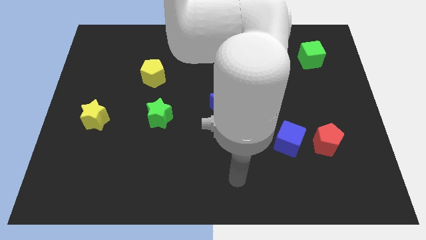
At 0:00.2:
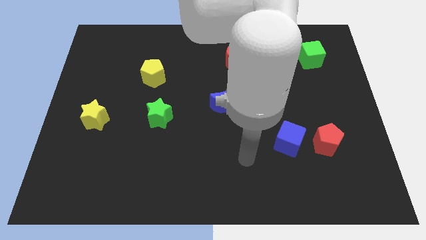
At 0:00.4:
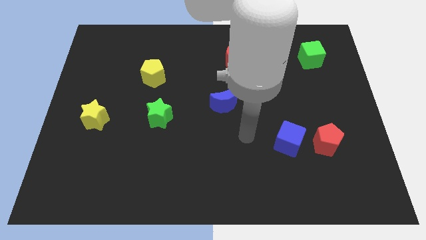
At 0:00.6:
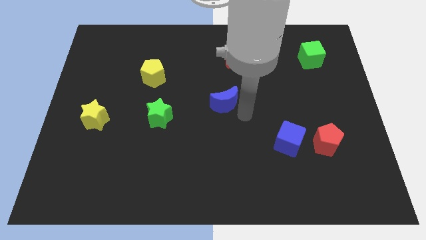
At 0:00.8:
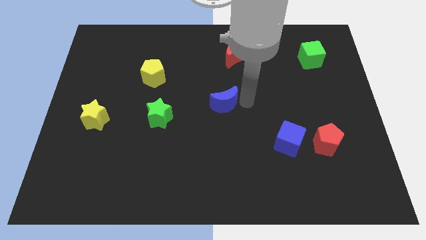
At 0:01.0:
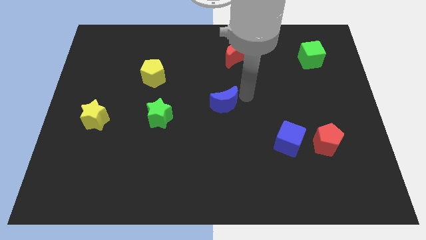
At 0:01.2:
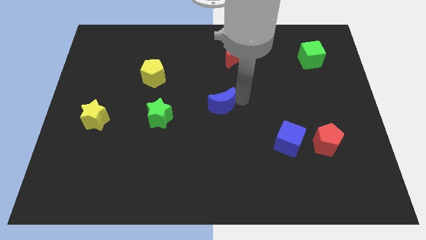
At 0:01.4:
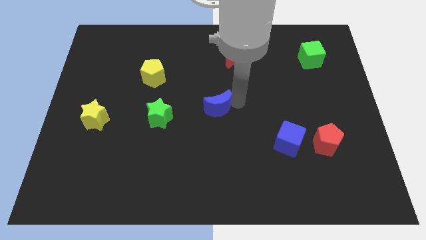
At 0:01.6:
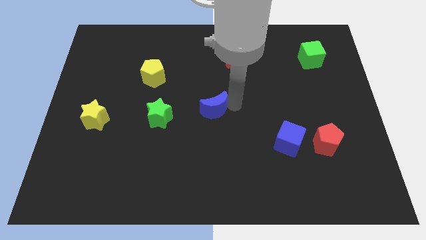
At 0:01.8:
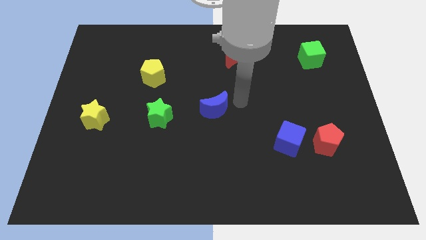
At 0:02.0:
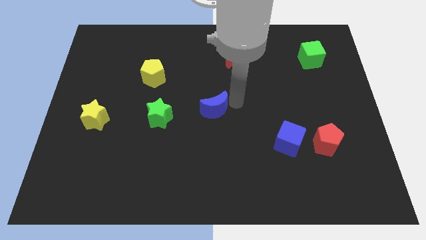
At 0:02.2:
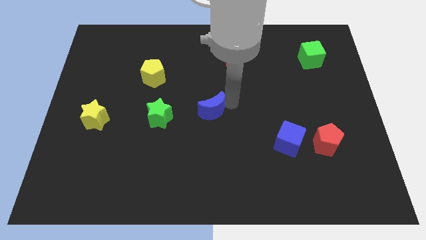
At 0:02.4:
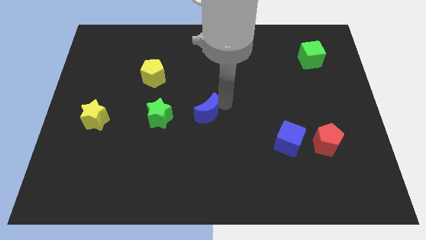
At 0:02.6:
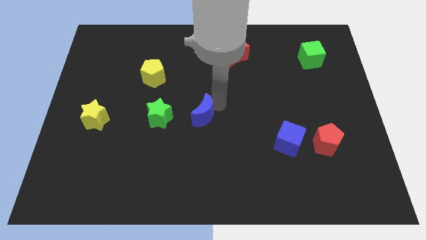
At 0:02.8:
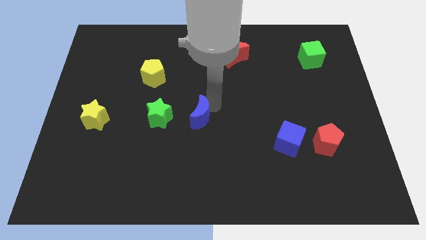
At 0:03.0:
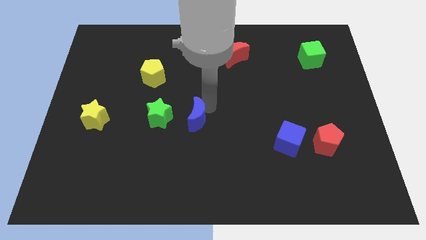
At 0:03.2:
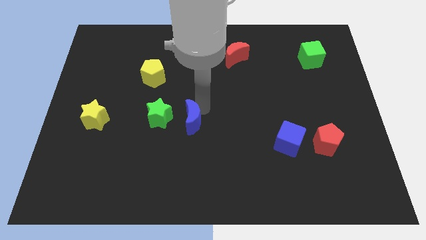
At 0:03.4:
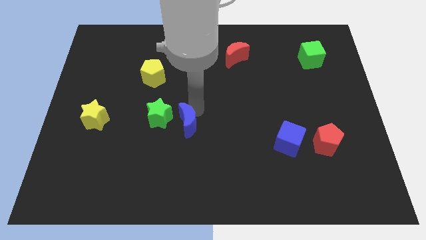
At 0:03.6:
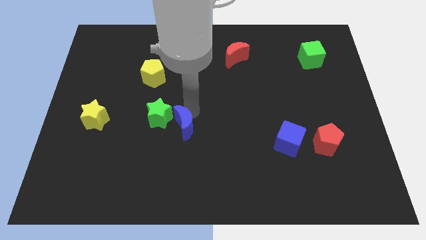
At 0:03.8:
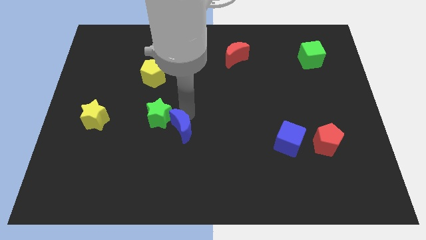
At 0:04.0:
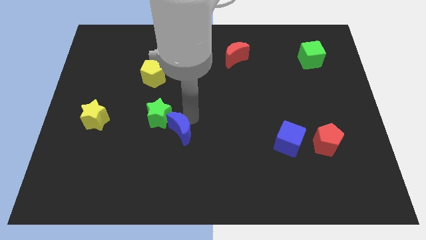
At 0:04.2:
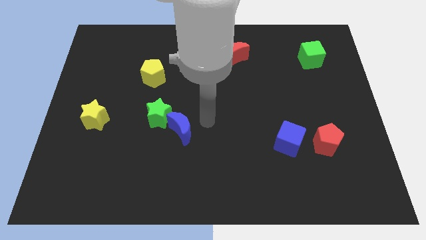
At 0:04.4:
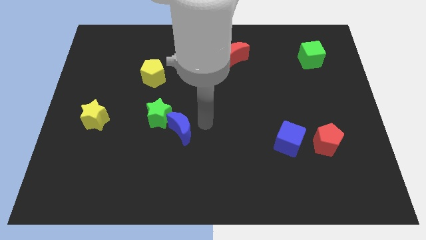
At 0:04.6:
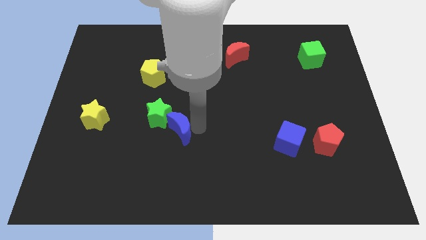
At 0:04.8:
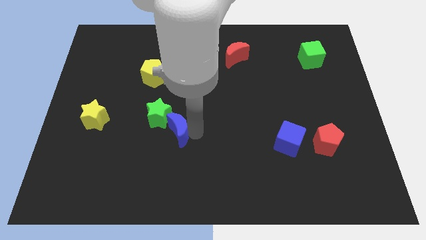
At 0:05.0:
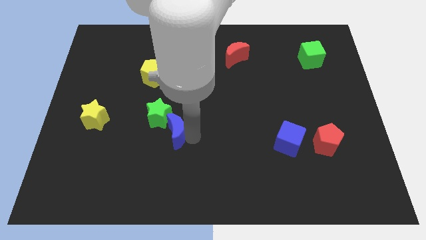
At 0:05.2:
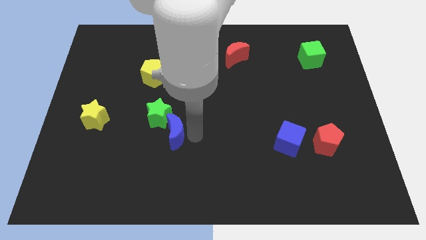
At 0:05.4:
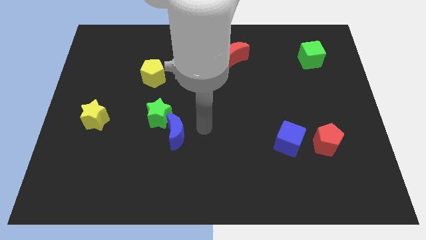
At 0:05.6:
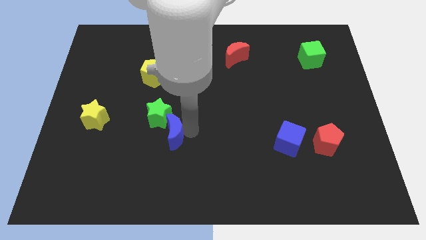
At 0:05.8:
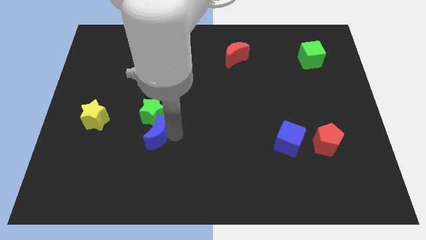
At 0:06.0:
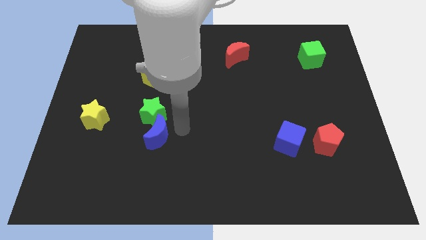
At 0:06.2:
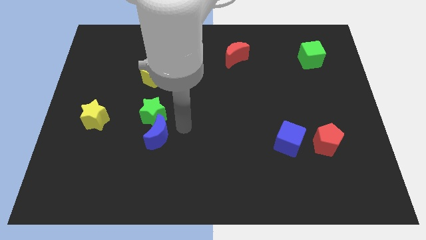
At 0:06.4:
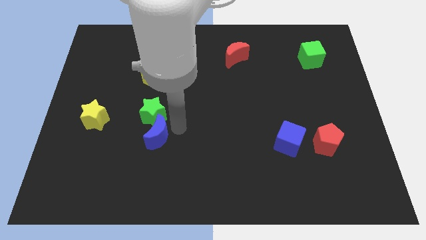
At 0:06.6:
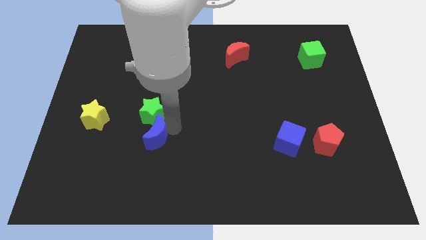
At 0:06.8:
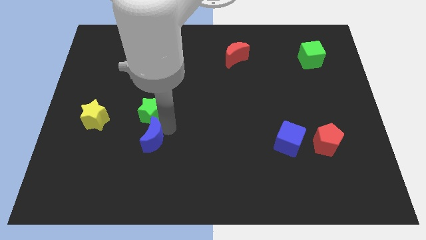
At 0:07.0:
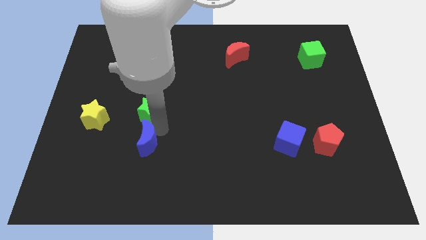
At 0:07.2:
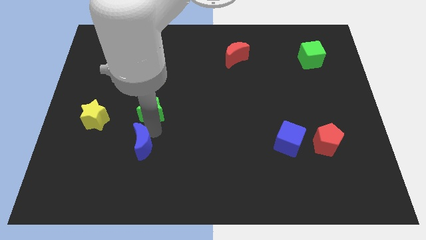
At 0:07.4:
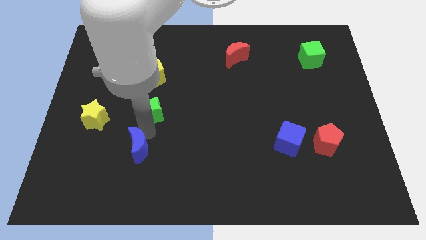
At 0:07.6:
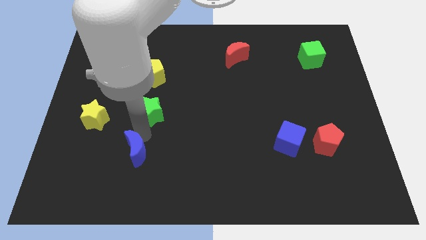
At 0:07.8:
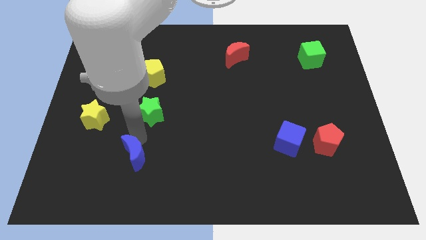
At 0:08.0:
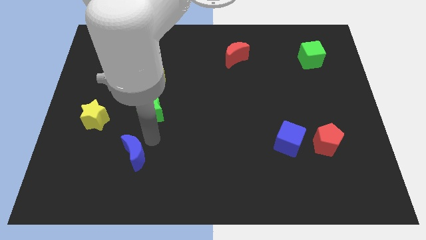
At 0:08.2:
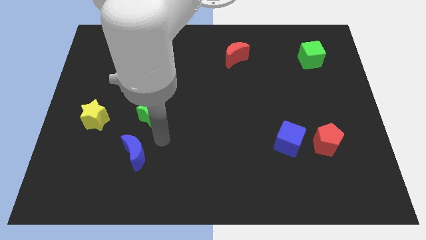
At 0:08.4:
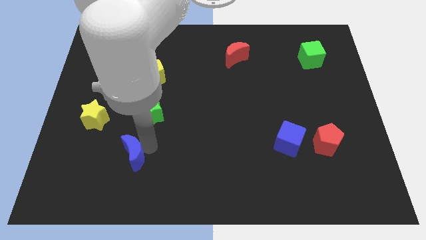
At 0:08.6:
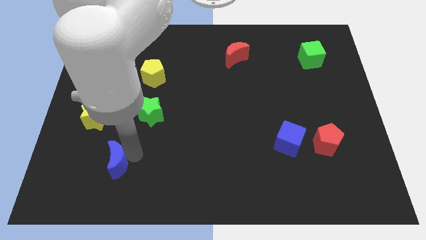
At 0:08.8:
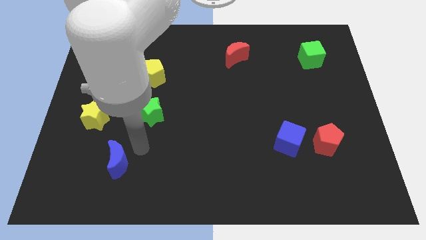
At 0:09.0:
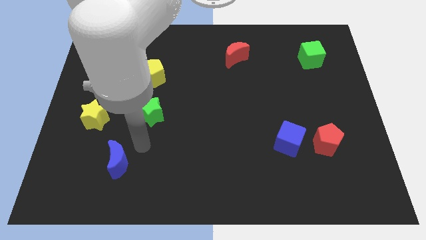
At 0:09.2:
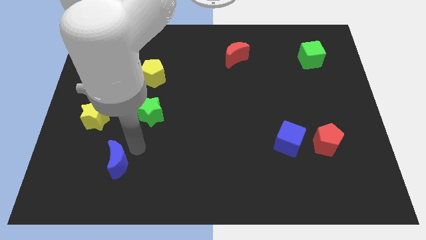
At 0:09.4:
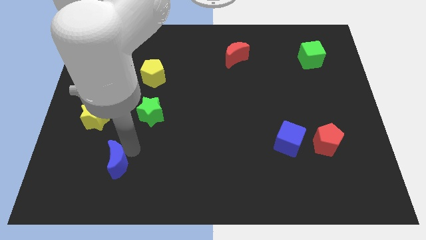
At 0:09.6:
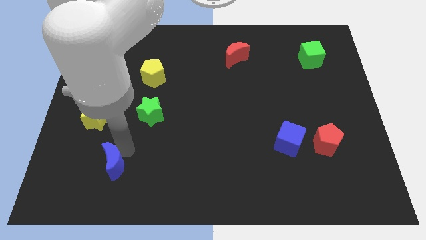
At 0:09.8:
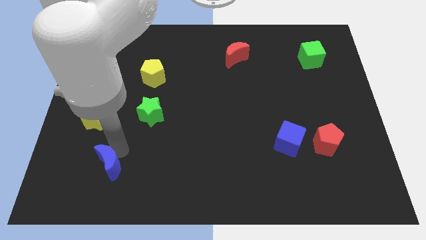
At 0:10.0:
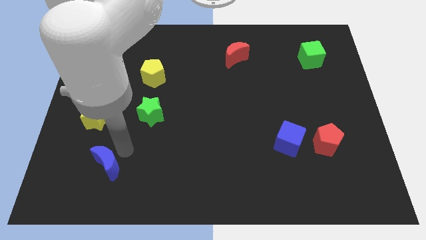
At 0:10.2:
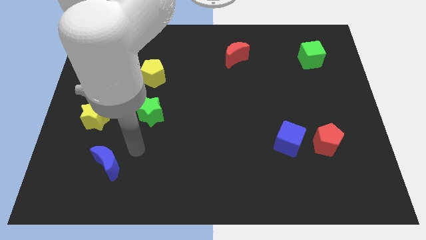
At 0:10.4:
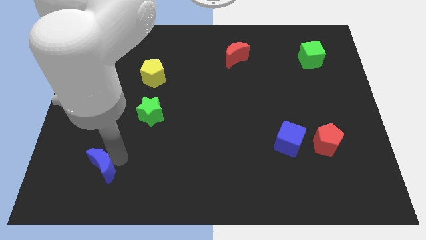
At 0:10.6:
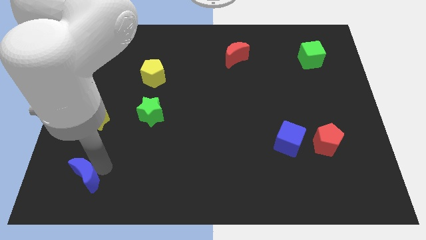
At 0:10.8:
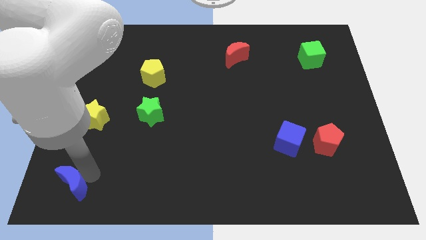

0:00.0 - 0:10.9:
move the blue moon to the lower left corner
